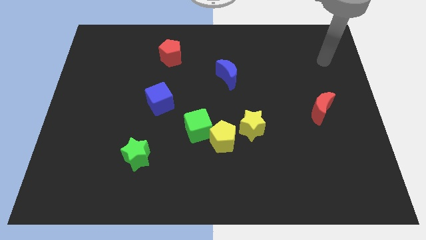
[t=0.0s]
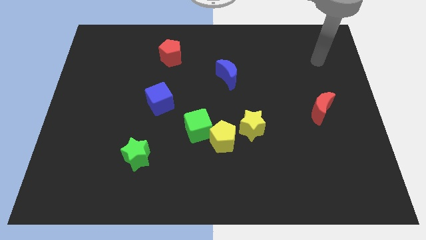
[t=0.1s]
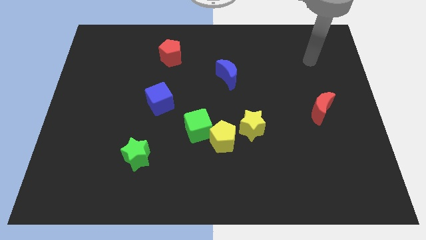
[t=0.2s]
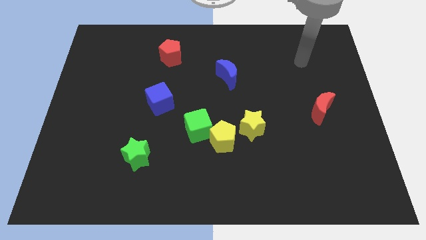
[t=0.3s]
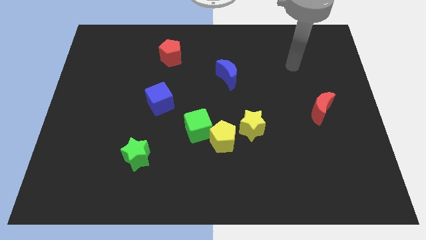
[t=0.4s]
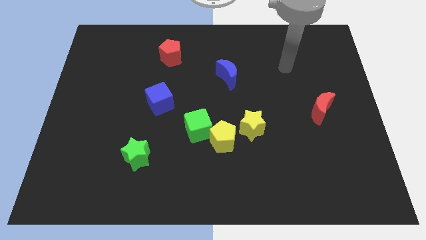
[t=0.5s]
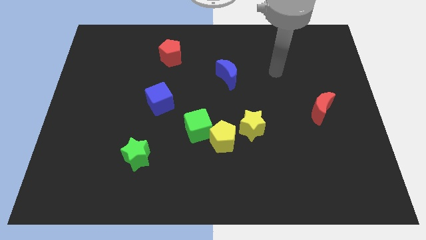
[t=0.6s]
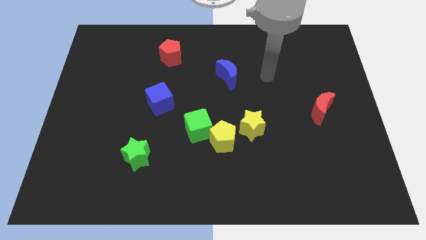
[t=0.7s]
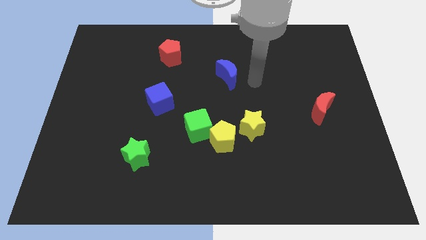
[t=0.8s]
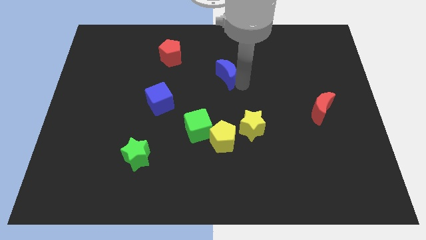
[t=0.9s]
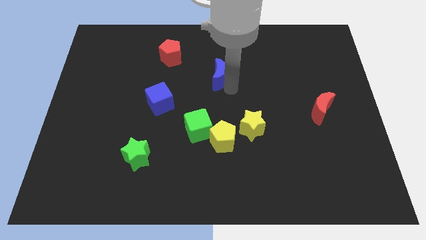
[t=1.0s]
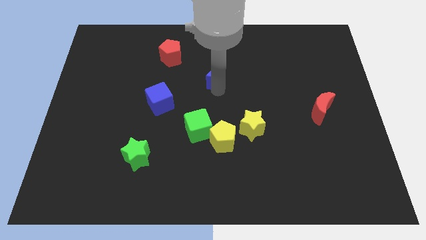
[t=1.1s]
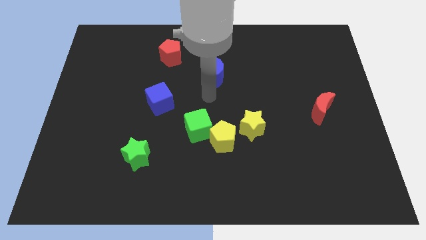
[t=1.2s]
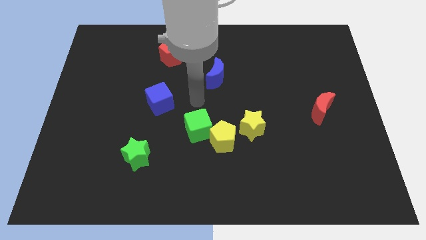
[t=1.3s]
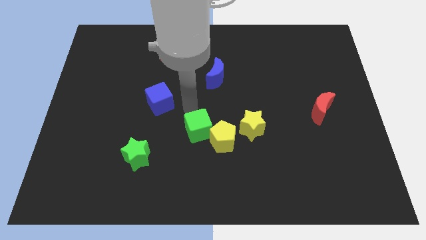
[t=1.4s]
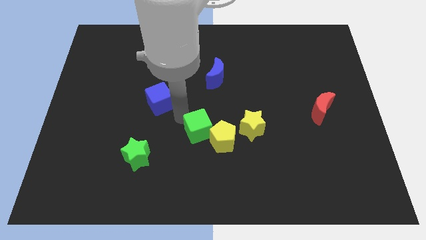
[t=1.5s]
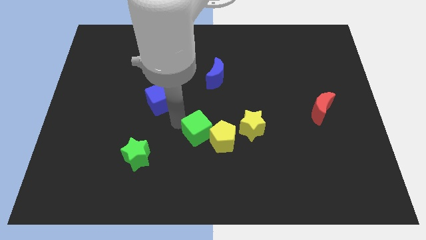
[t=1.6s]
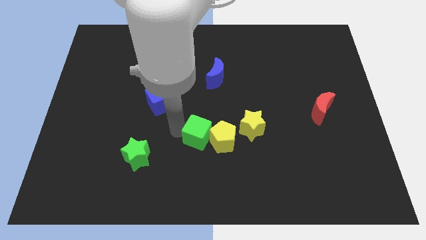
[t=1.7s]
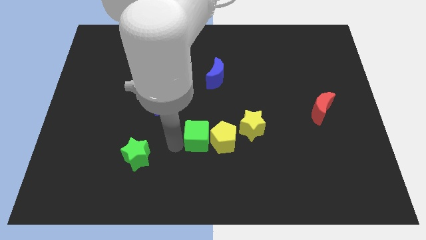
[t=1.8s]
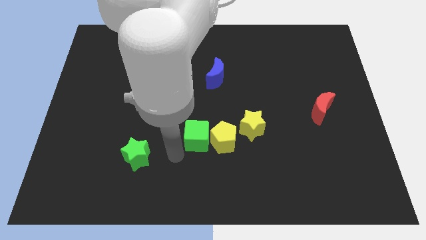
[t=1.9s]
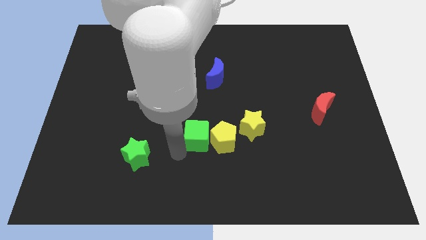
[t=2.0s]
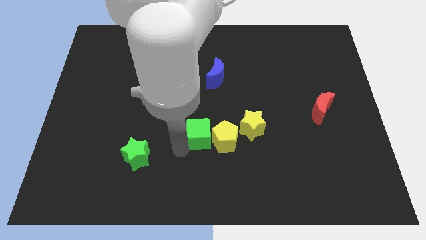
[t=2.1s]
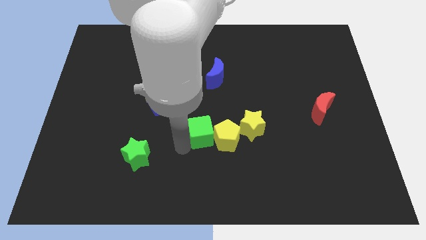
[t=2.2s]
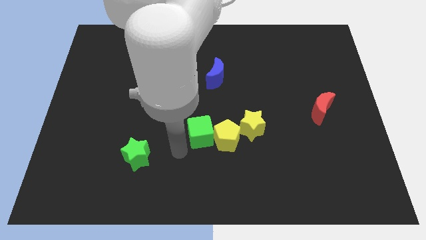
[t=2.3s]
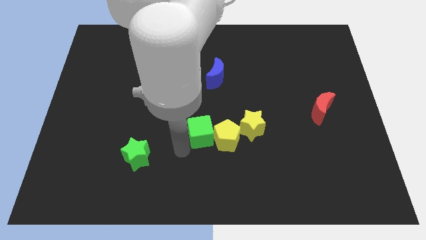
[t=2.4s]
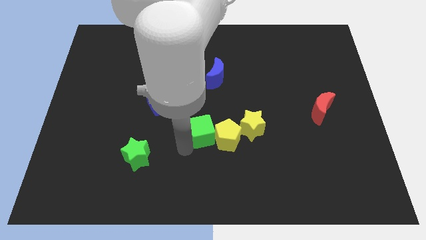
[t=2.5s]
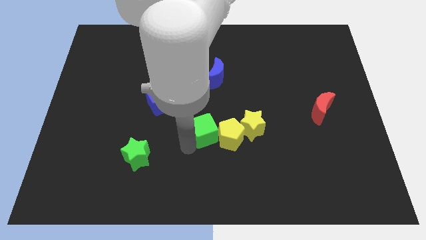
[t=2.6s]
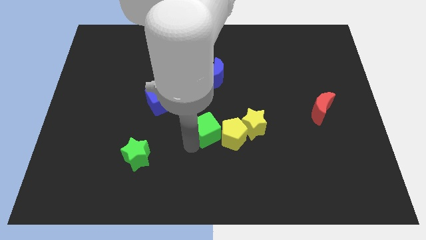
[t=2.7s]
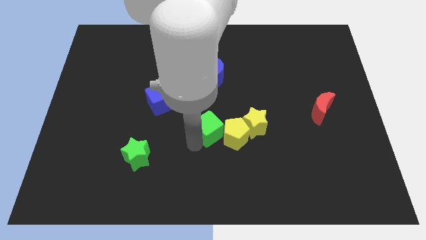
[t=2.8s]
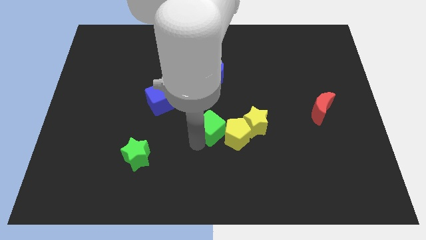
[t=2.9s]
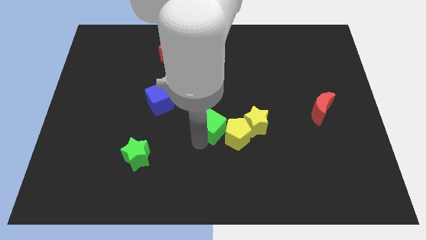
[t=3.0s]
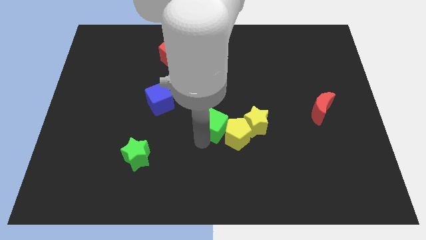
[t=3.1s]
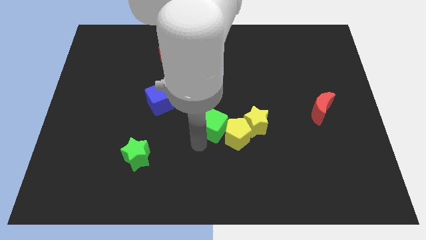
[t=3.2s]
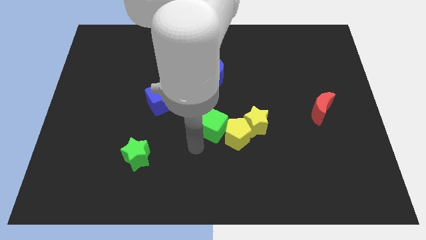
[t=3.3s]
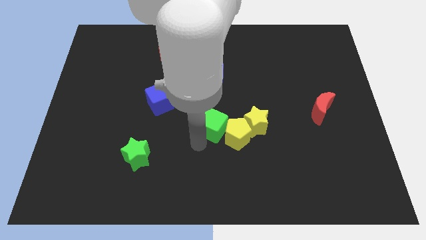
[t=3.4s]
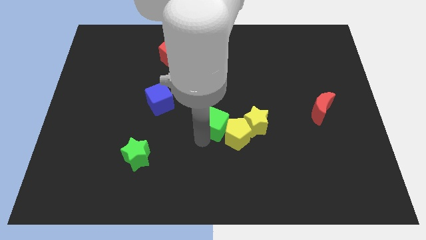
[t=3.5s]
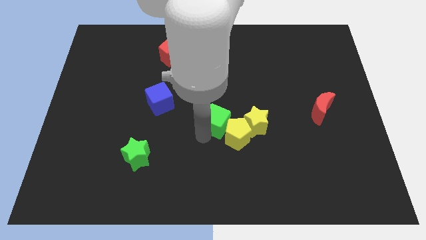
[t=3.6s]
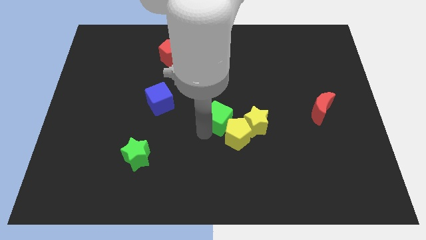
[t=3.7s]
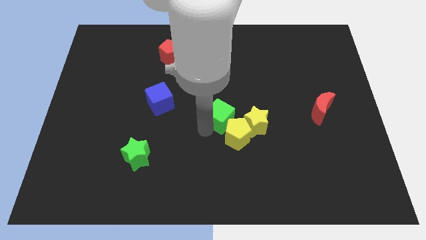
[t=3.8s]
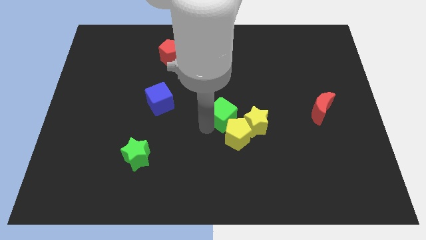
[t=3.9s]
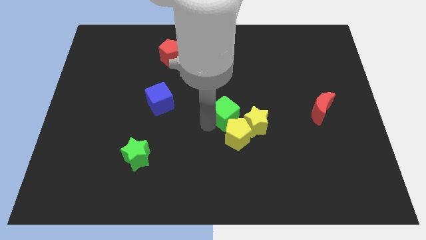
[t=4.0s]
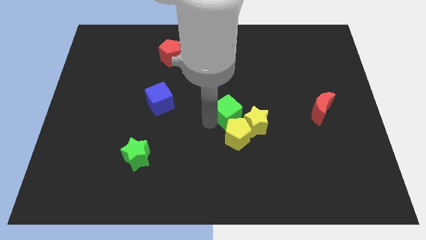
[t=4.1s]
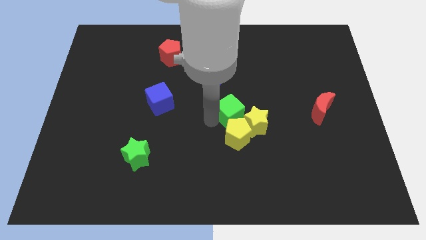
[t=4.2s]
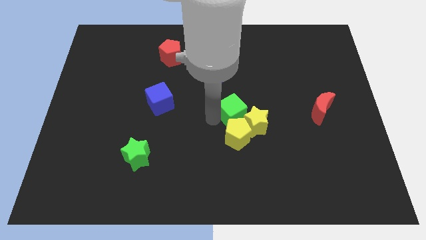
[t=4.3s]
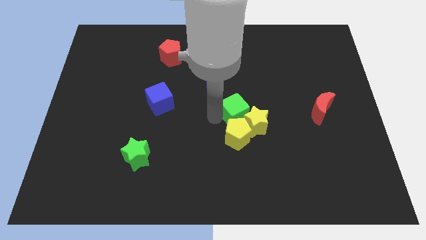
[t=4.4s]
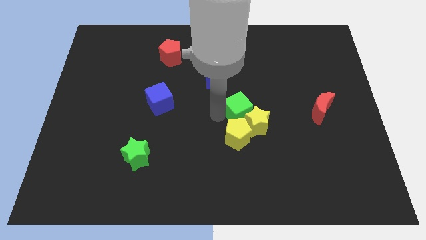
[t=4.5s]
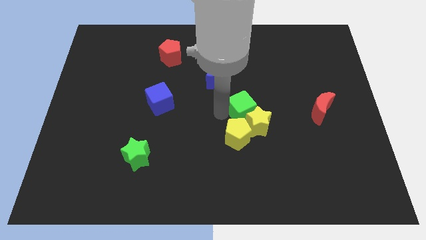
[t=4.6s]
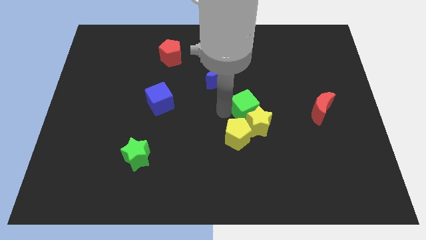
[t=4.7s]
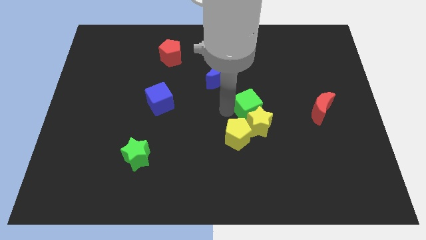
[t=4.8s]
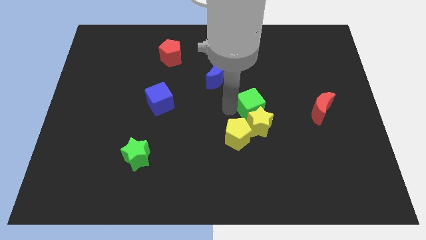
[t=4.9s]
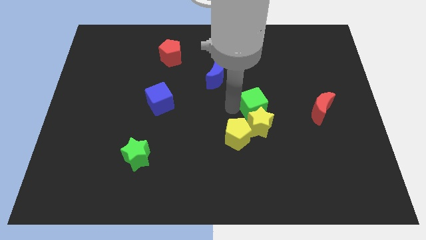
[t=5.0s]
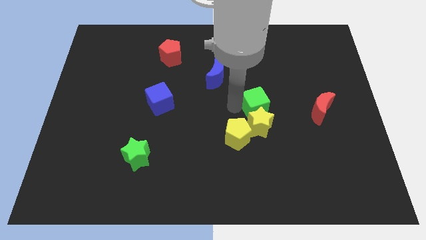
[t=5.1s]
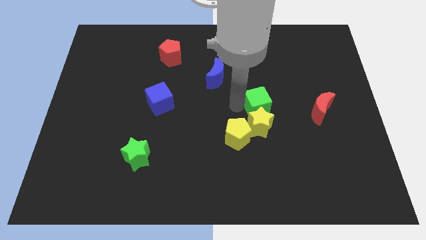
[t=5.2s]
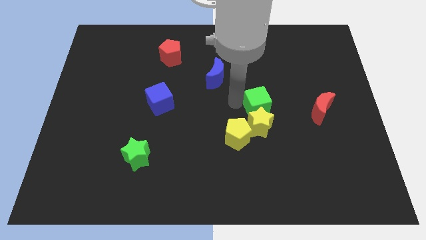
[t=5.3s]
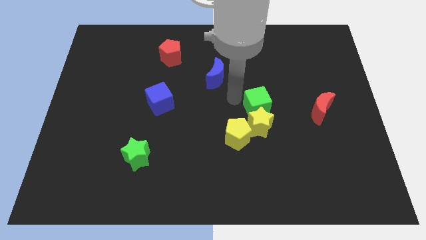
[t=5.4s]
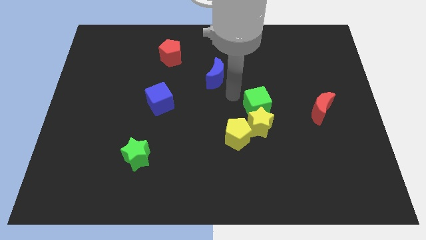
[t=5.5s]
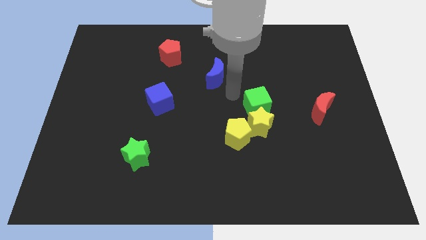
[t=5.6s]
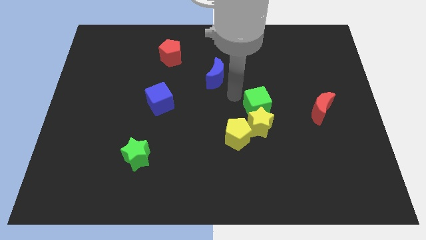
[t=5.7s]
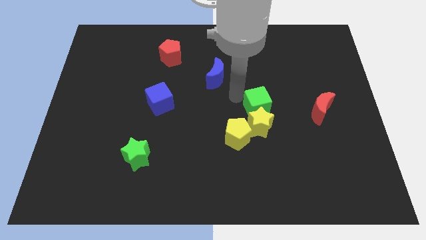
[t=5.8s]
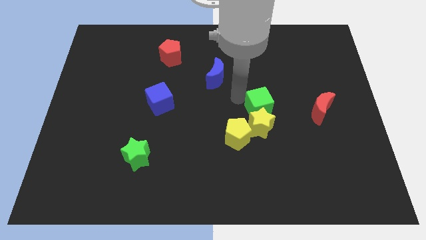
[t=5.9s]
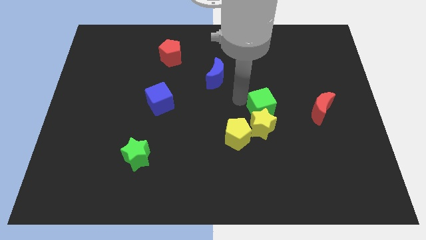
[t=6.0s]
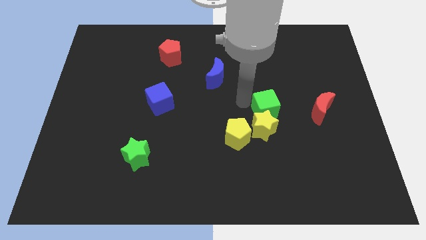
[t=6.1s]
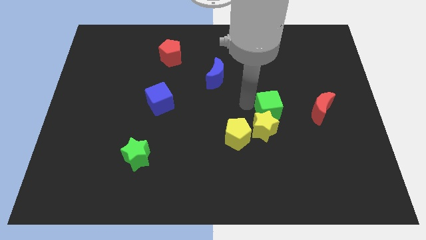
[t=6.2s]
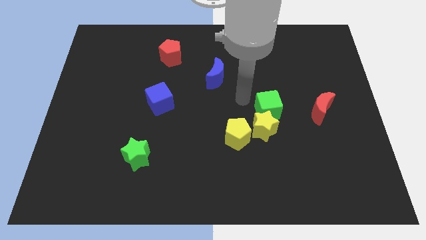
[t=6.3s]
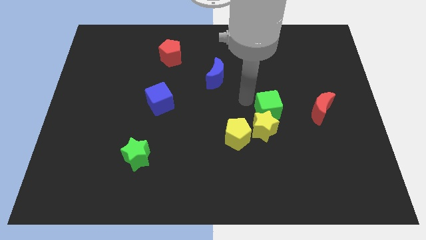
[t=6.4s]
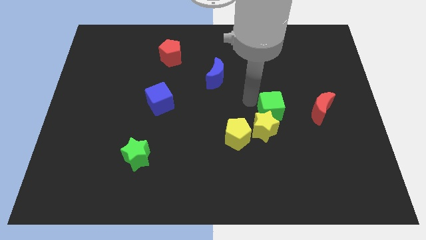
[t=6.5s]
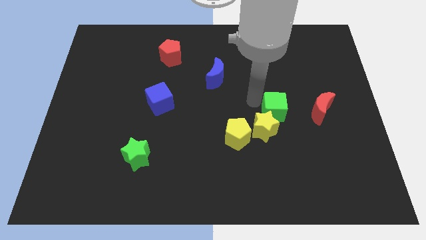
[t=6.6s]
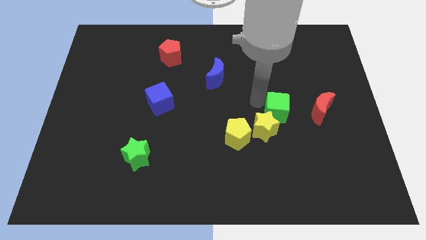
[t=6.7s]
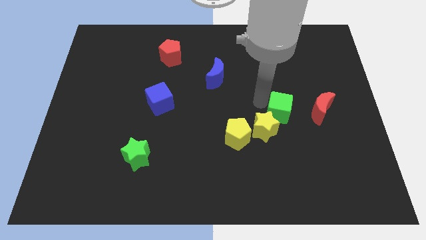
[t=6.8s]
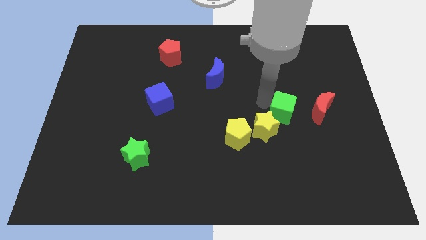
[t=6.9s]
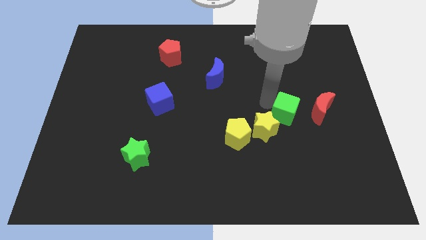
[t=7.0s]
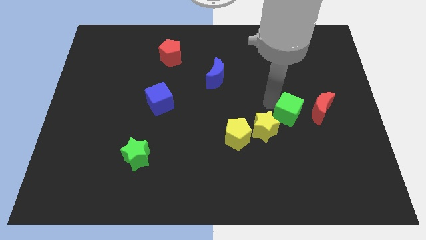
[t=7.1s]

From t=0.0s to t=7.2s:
move the green cube to the right

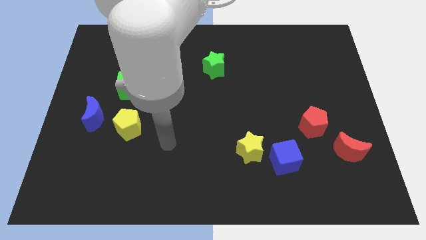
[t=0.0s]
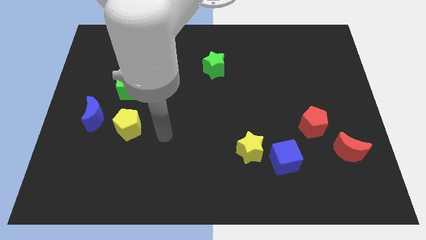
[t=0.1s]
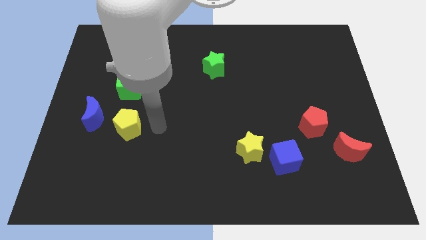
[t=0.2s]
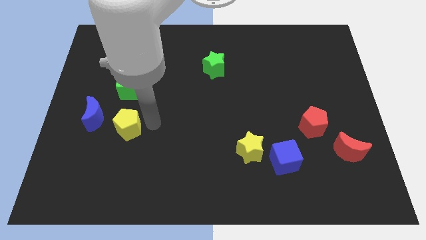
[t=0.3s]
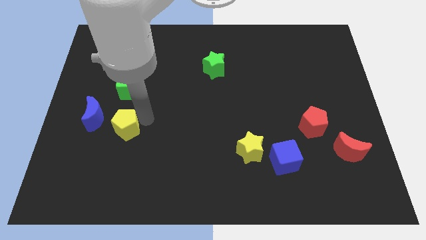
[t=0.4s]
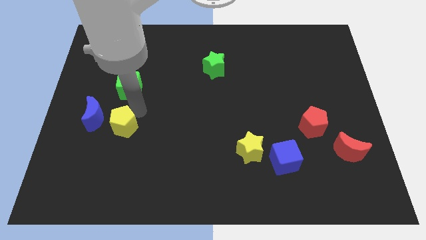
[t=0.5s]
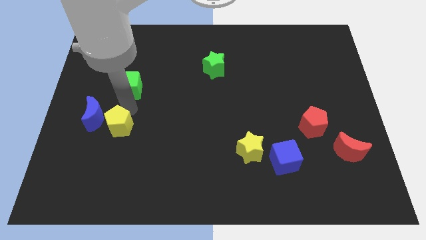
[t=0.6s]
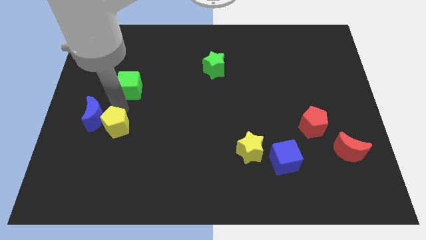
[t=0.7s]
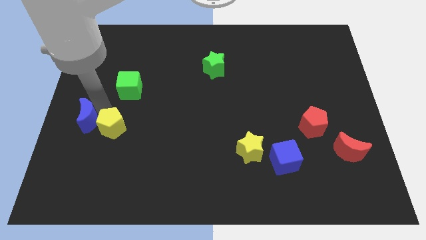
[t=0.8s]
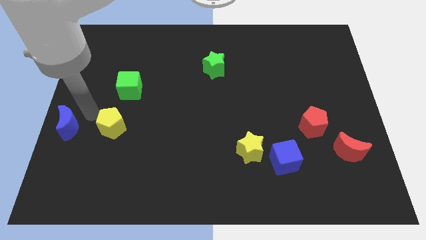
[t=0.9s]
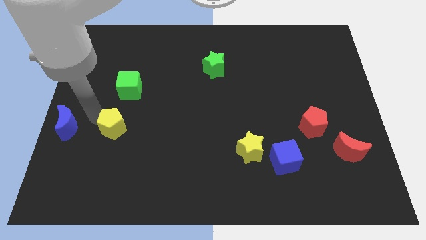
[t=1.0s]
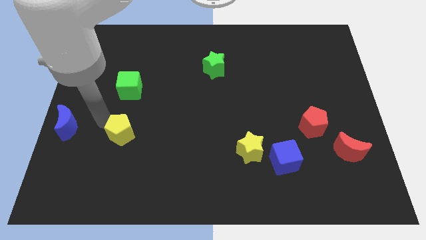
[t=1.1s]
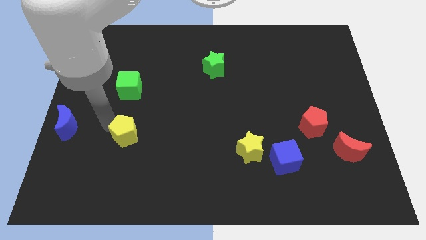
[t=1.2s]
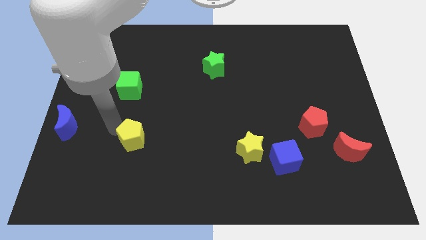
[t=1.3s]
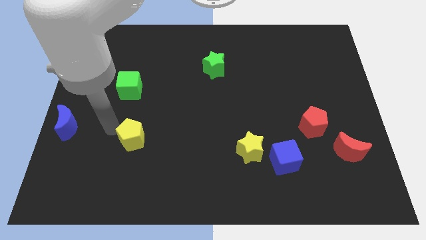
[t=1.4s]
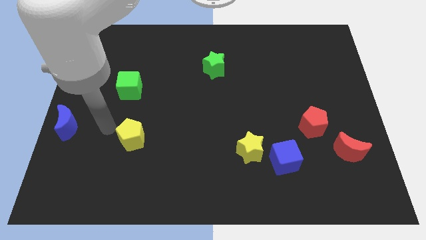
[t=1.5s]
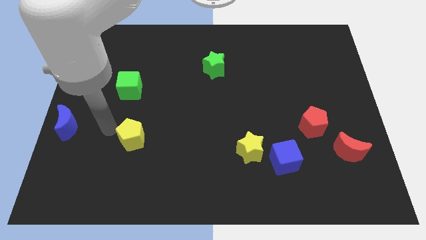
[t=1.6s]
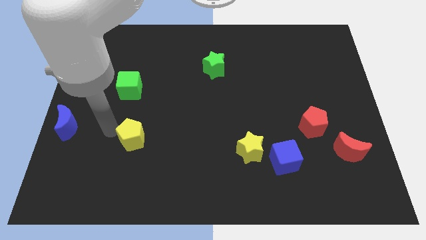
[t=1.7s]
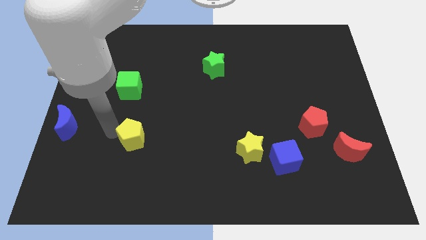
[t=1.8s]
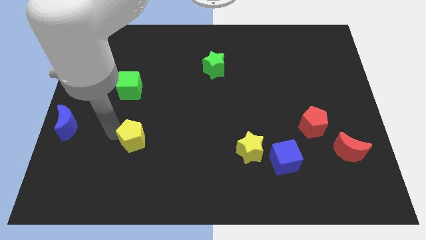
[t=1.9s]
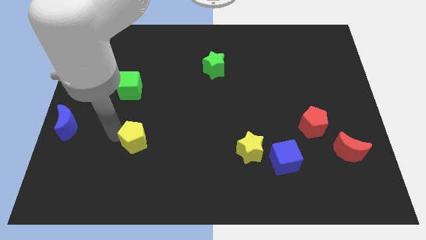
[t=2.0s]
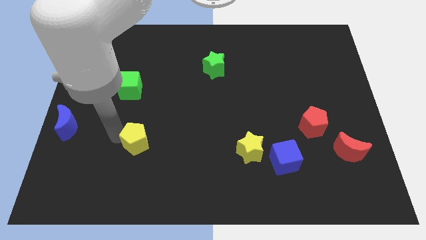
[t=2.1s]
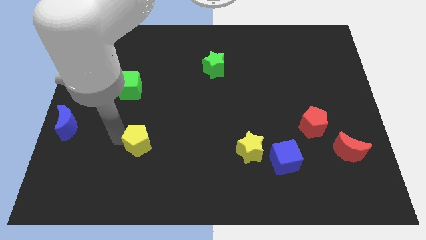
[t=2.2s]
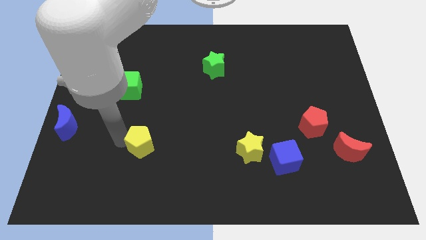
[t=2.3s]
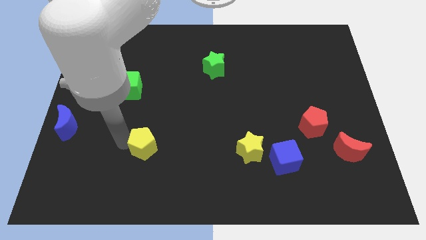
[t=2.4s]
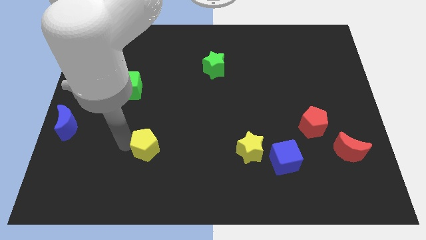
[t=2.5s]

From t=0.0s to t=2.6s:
slightly push the yellow pentagon down and to the right diagonally
